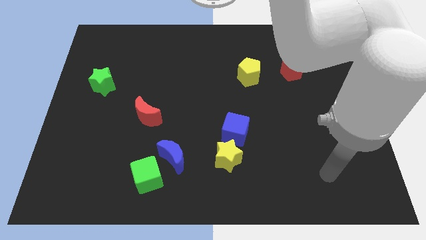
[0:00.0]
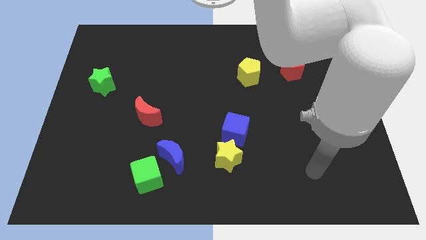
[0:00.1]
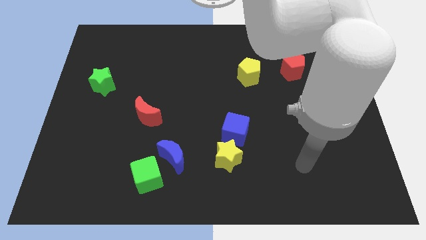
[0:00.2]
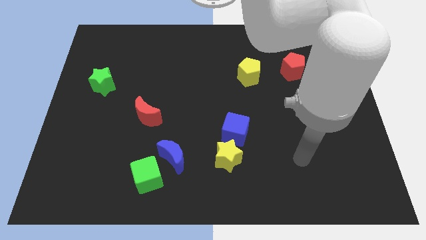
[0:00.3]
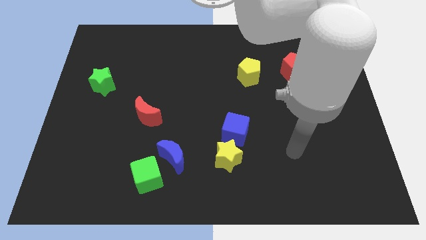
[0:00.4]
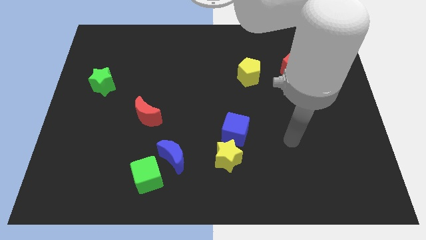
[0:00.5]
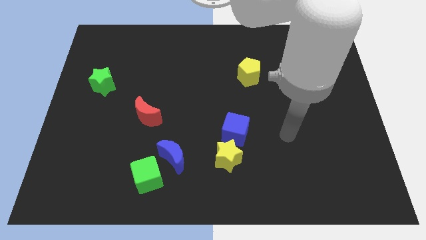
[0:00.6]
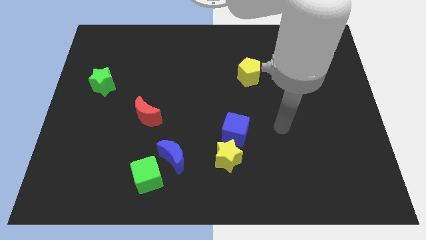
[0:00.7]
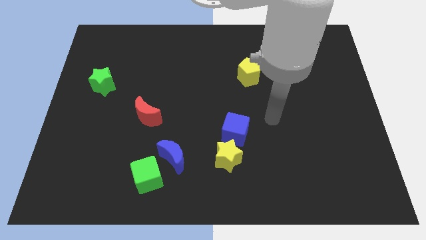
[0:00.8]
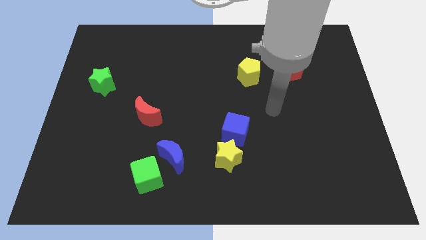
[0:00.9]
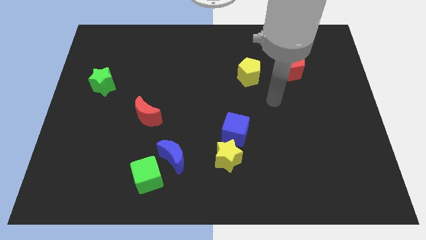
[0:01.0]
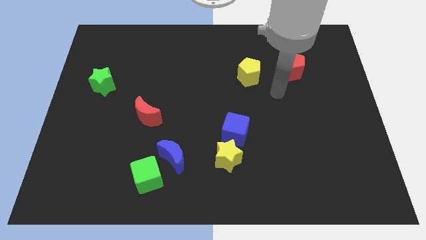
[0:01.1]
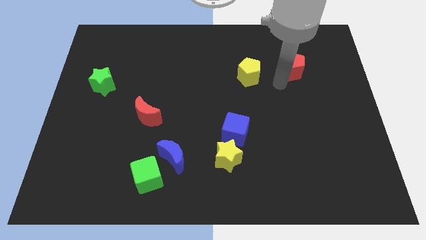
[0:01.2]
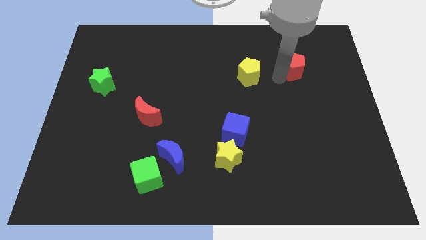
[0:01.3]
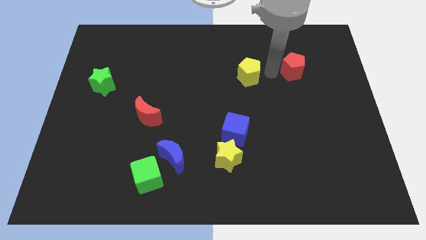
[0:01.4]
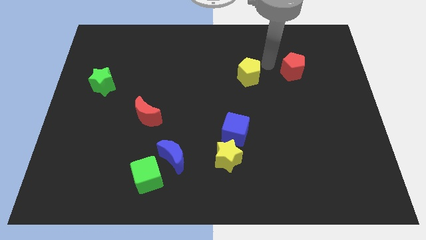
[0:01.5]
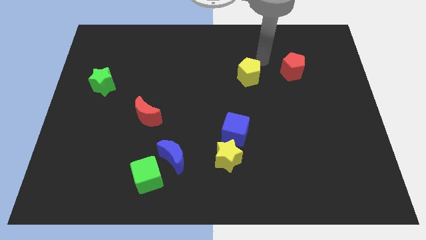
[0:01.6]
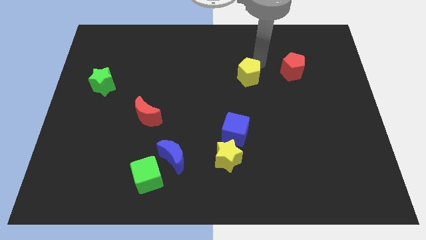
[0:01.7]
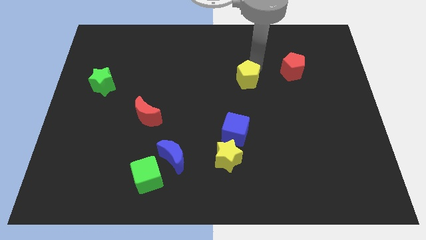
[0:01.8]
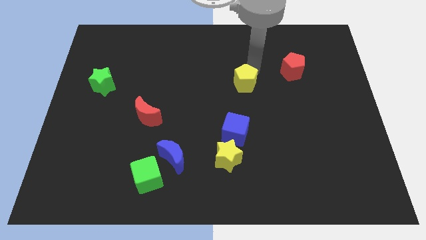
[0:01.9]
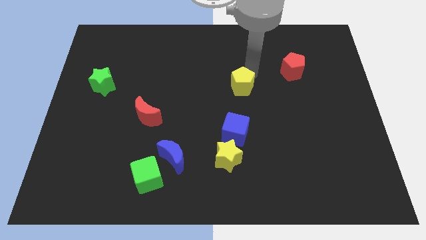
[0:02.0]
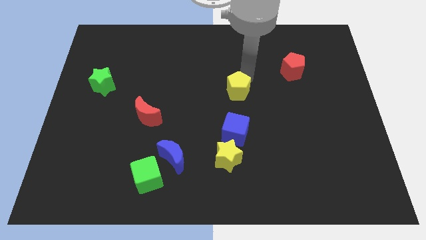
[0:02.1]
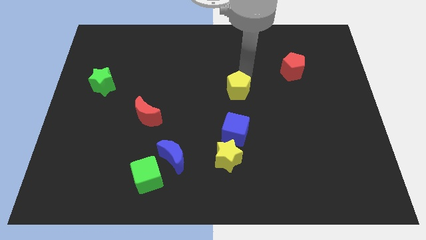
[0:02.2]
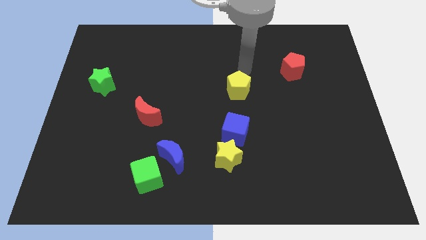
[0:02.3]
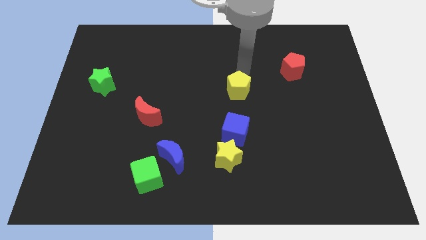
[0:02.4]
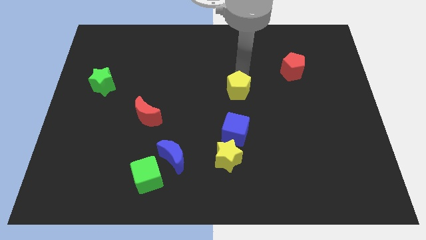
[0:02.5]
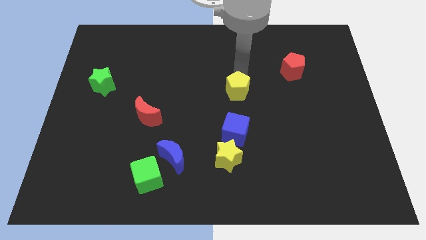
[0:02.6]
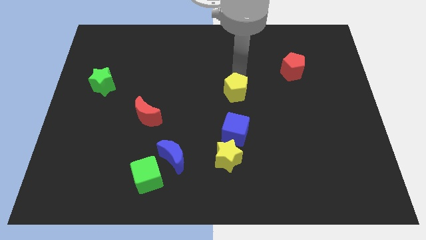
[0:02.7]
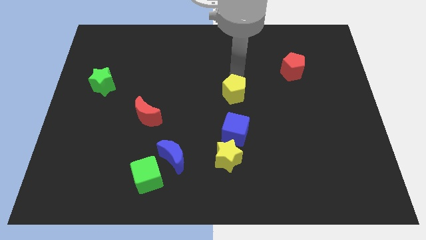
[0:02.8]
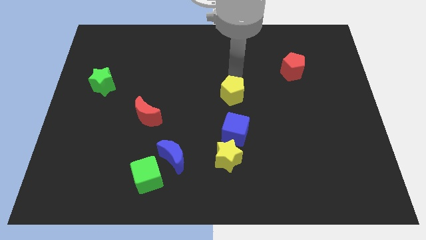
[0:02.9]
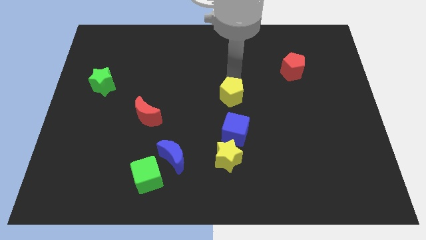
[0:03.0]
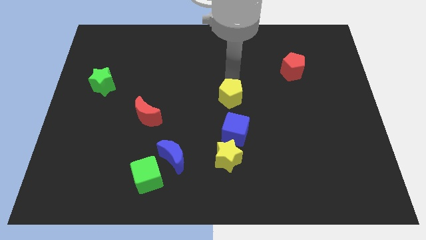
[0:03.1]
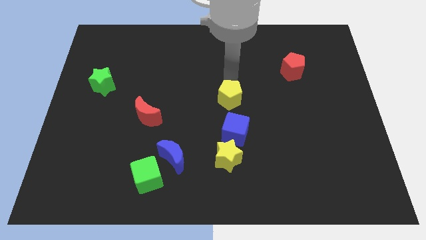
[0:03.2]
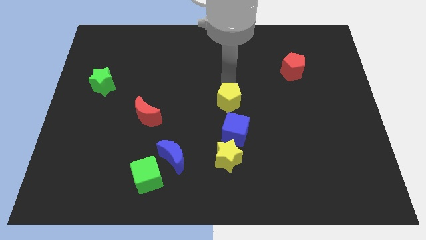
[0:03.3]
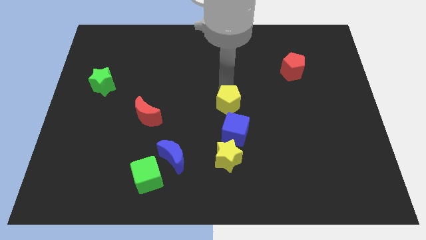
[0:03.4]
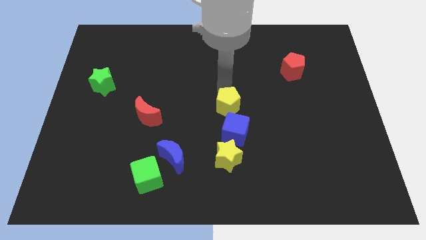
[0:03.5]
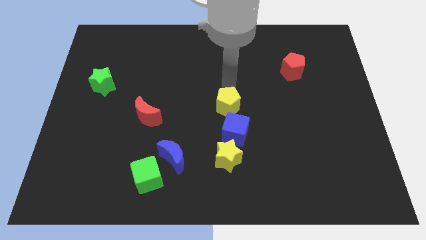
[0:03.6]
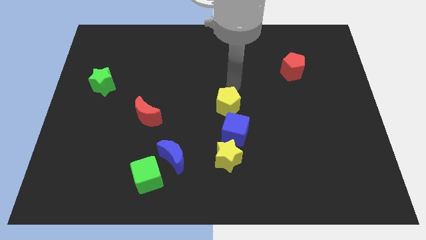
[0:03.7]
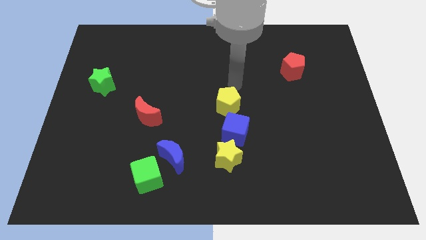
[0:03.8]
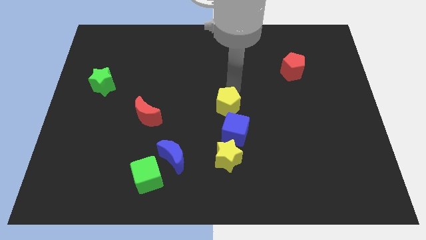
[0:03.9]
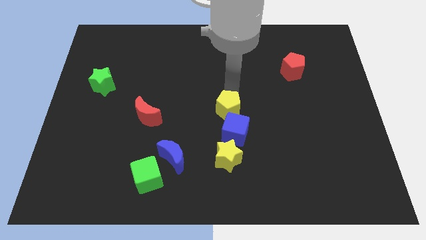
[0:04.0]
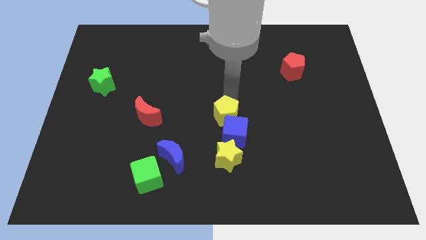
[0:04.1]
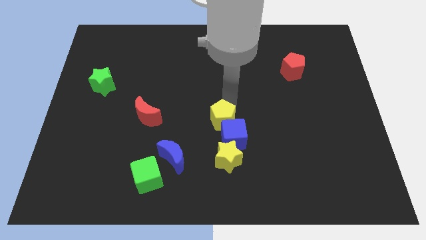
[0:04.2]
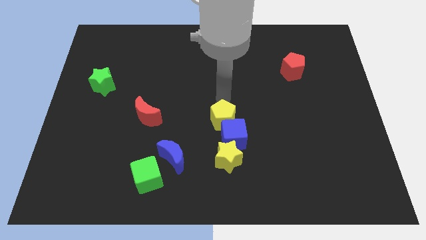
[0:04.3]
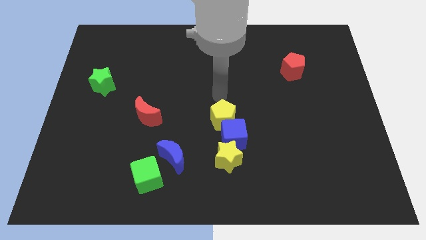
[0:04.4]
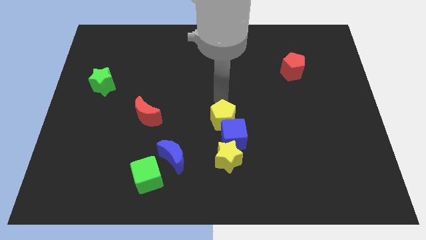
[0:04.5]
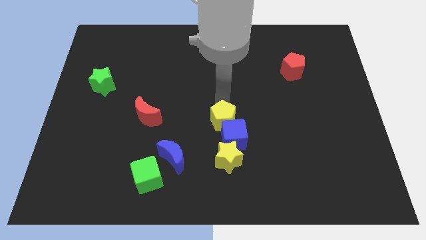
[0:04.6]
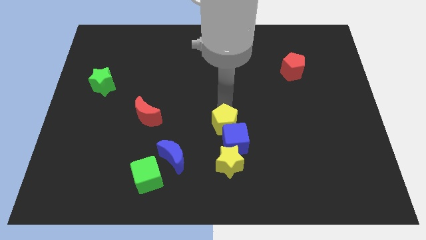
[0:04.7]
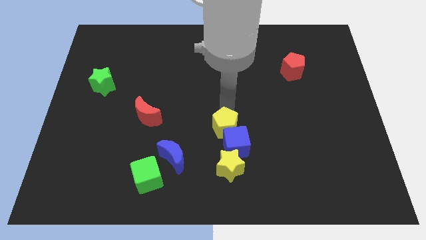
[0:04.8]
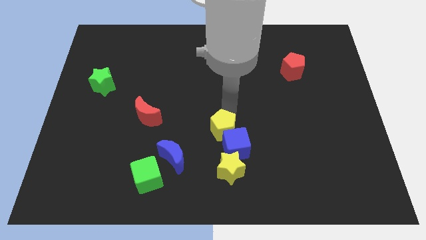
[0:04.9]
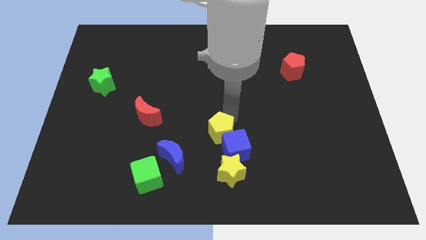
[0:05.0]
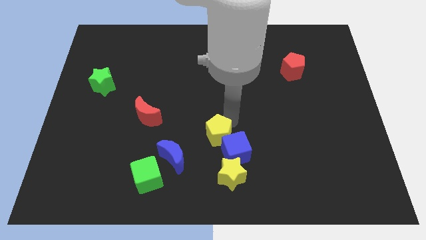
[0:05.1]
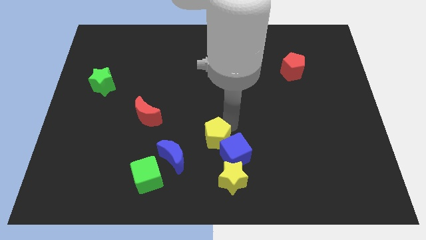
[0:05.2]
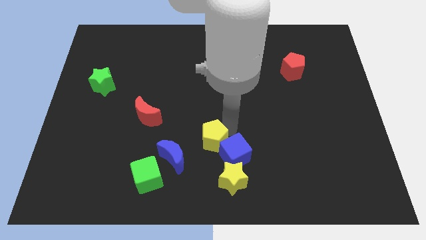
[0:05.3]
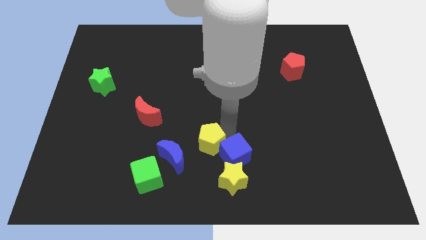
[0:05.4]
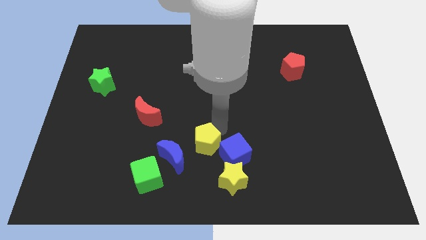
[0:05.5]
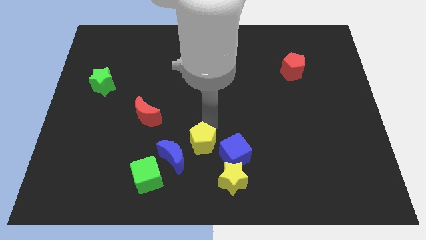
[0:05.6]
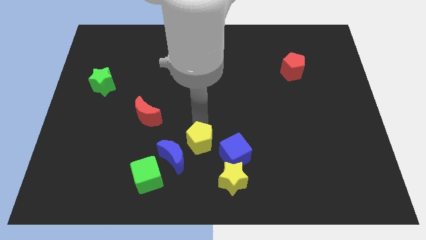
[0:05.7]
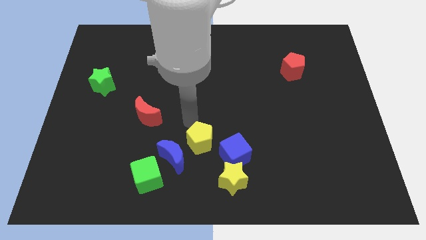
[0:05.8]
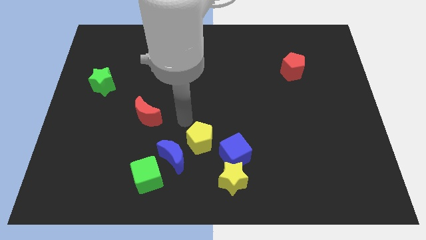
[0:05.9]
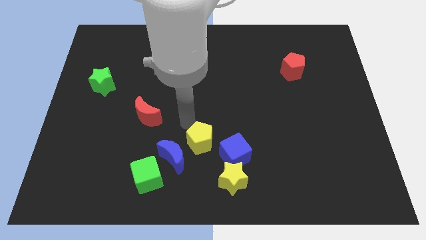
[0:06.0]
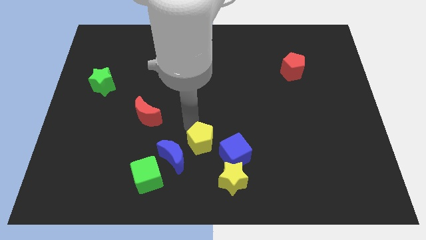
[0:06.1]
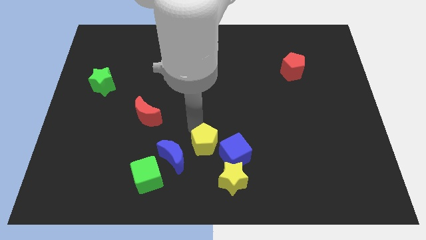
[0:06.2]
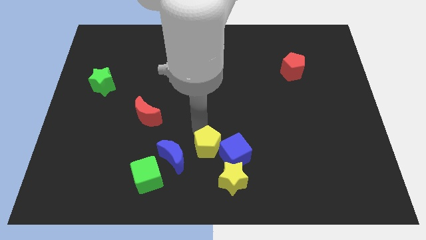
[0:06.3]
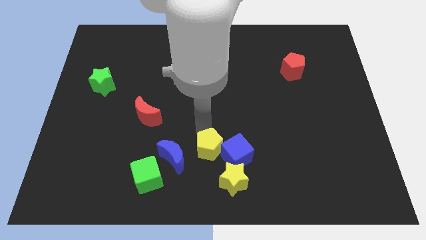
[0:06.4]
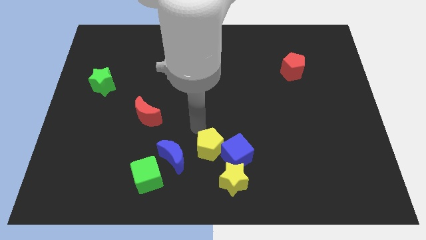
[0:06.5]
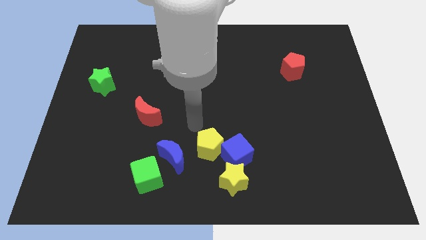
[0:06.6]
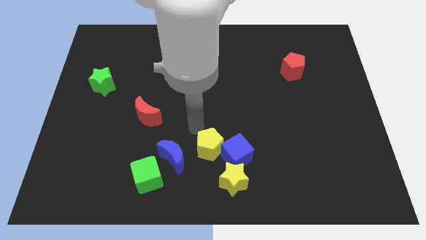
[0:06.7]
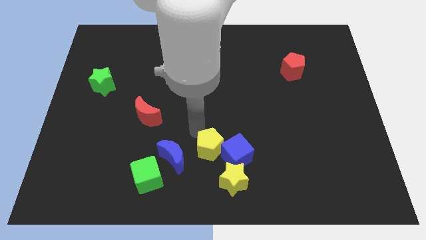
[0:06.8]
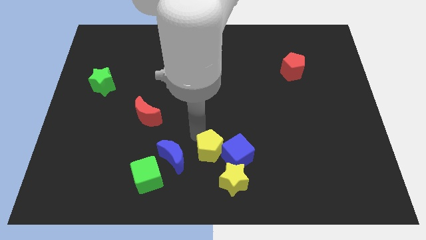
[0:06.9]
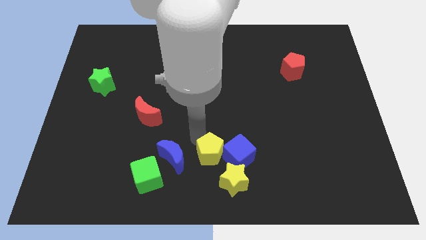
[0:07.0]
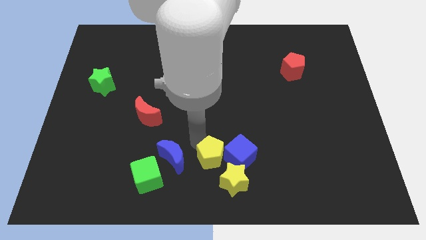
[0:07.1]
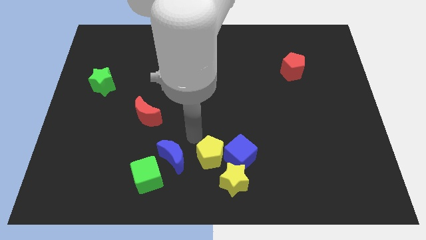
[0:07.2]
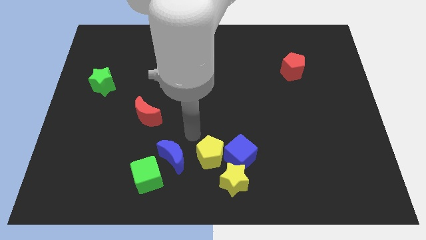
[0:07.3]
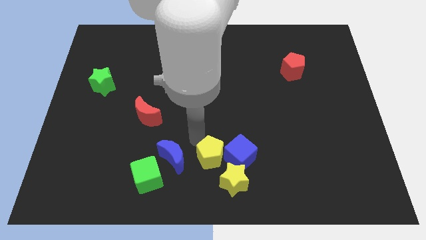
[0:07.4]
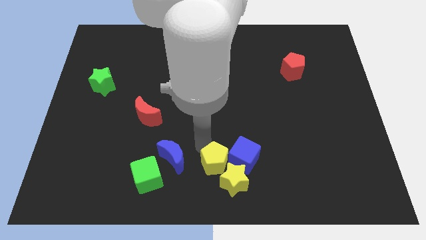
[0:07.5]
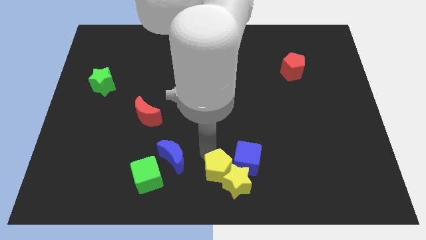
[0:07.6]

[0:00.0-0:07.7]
push the yellow pentagon towards the yellow star

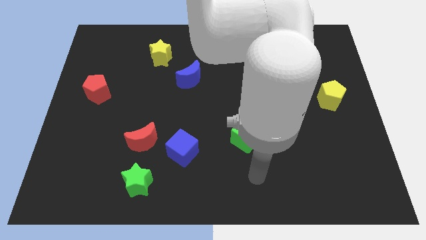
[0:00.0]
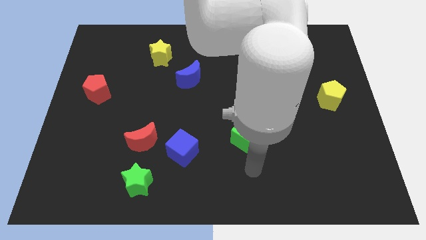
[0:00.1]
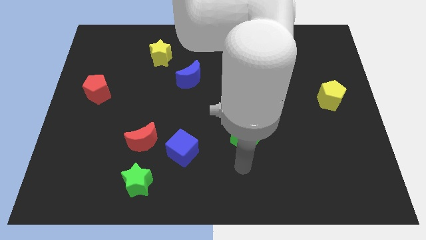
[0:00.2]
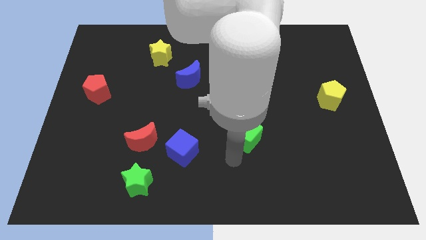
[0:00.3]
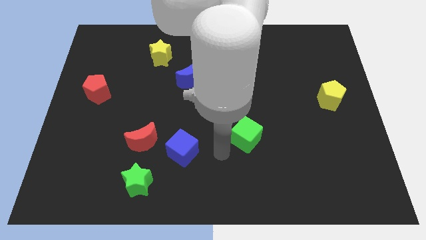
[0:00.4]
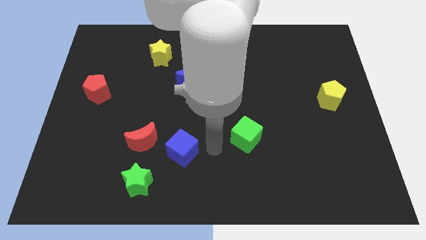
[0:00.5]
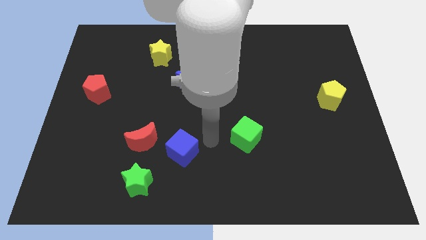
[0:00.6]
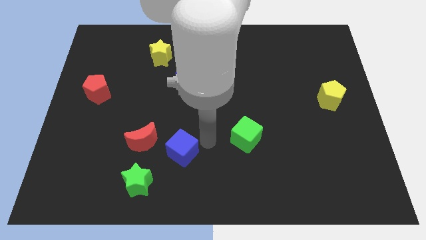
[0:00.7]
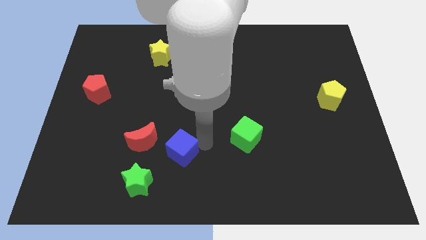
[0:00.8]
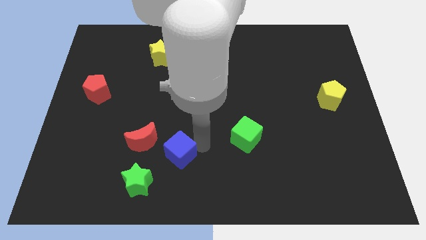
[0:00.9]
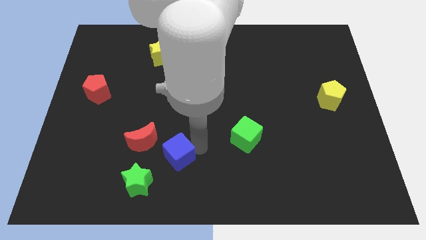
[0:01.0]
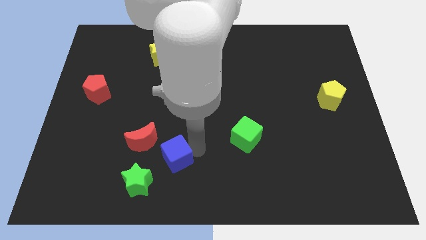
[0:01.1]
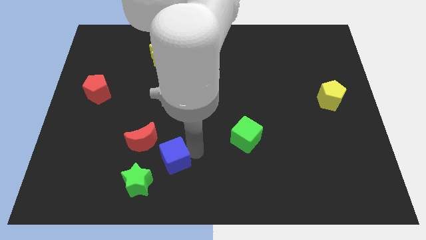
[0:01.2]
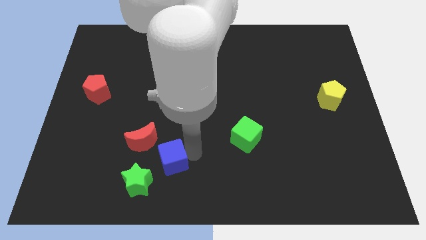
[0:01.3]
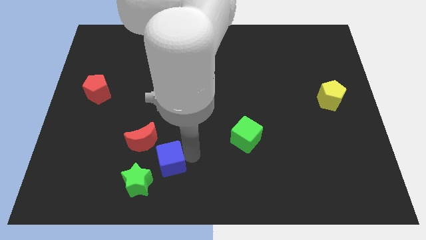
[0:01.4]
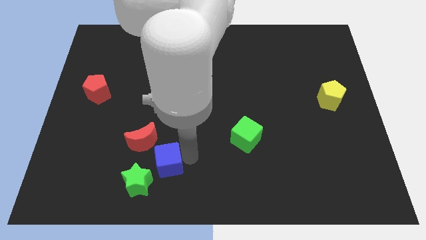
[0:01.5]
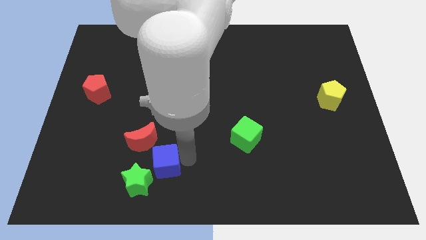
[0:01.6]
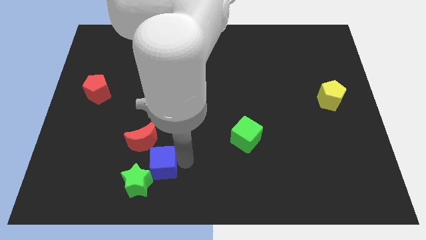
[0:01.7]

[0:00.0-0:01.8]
push the blue cube to the green star
